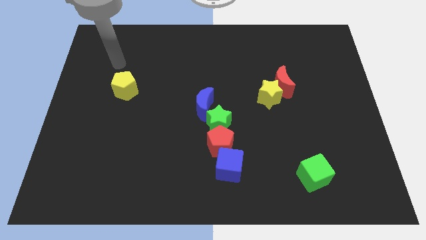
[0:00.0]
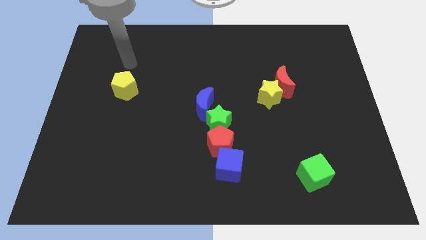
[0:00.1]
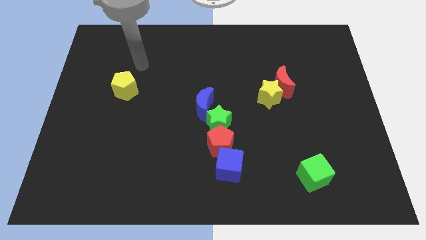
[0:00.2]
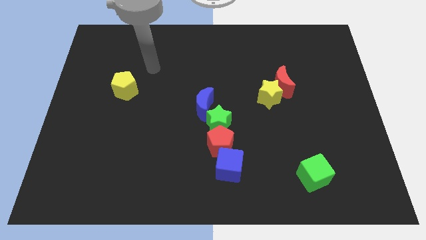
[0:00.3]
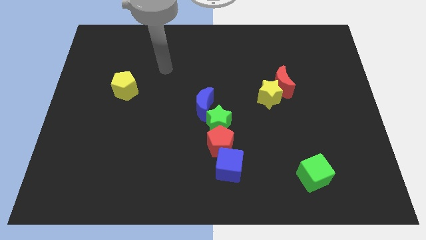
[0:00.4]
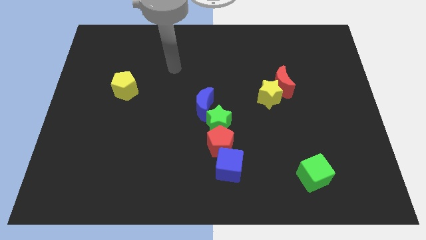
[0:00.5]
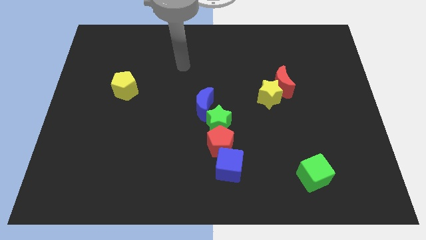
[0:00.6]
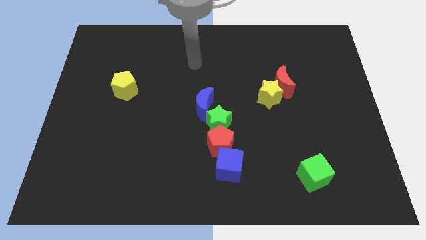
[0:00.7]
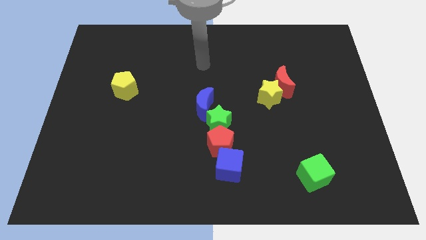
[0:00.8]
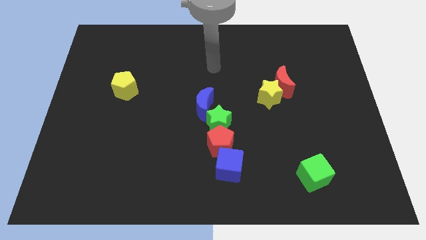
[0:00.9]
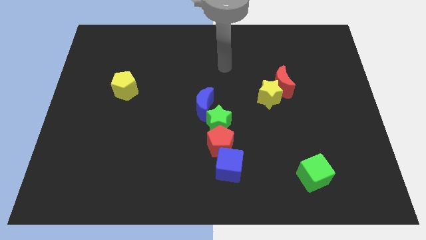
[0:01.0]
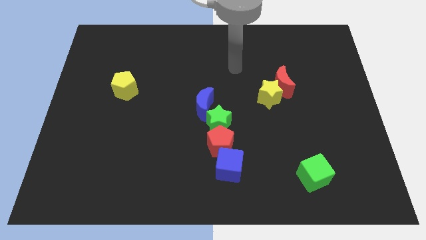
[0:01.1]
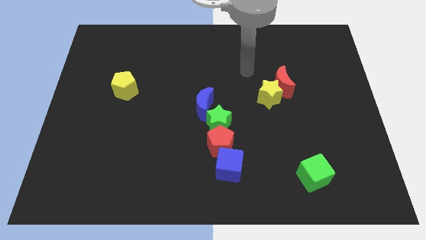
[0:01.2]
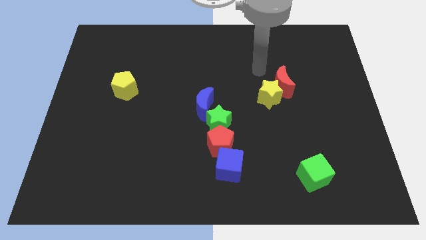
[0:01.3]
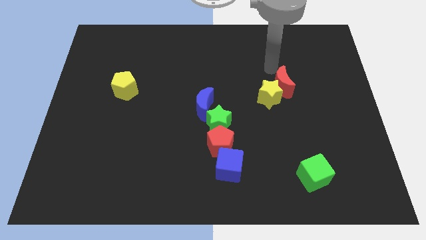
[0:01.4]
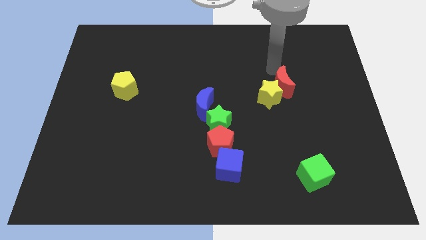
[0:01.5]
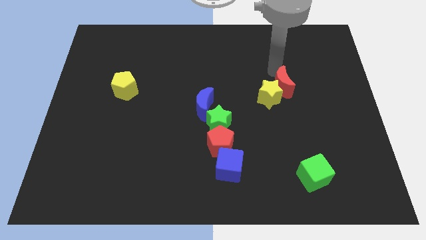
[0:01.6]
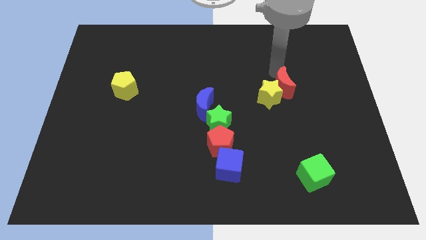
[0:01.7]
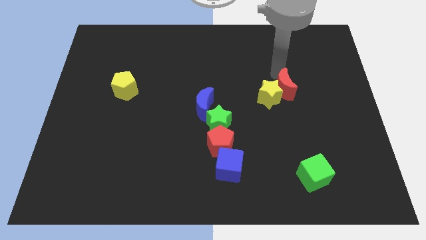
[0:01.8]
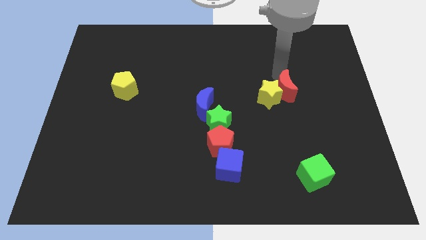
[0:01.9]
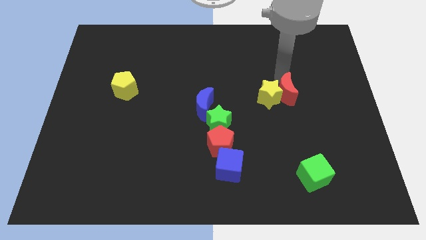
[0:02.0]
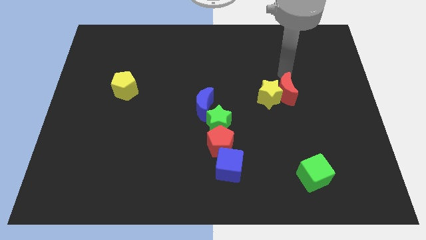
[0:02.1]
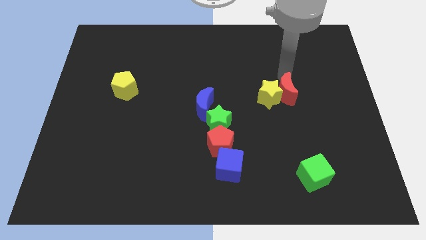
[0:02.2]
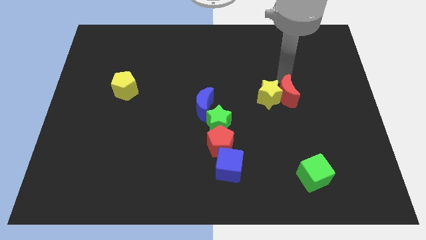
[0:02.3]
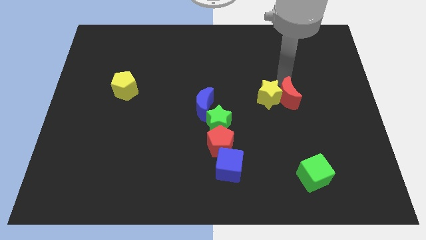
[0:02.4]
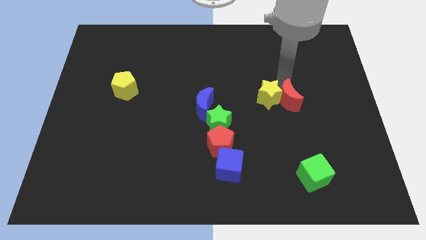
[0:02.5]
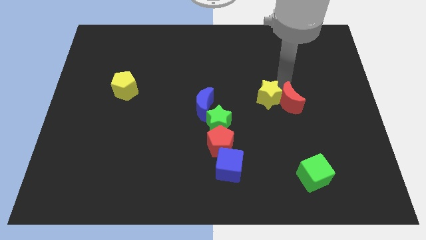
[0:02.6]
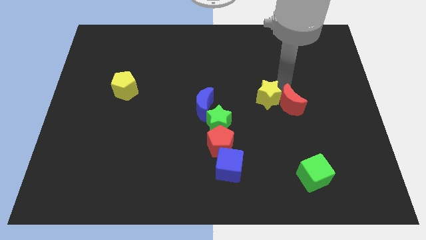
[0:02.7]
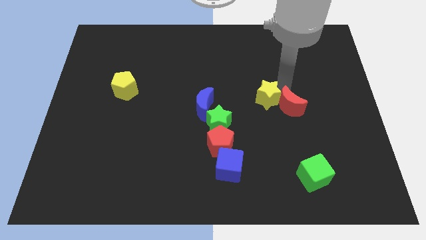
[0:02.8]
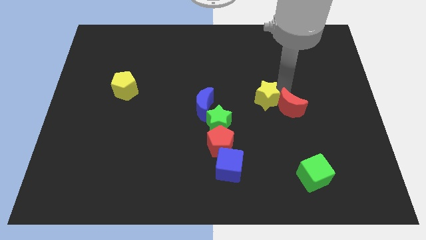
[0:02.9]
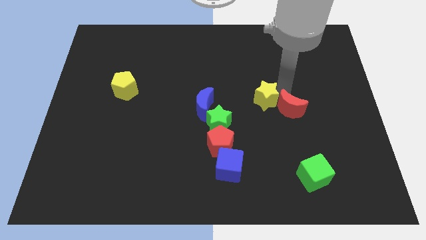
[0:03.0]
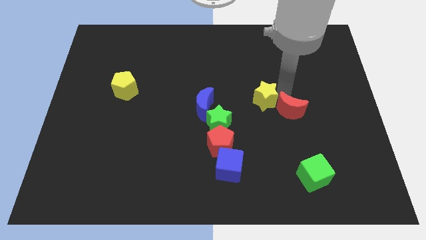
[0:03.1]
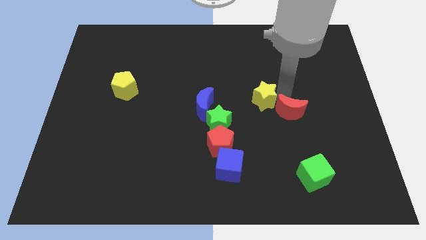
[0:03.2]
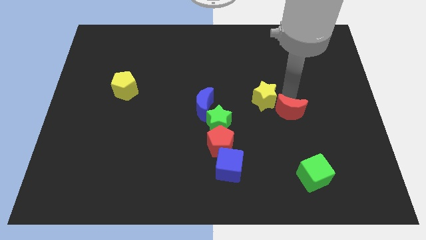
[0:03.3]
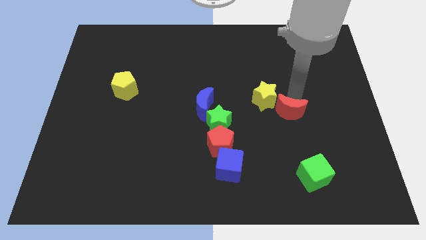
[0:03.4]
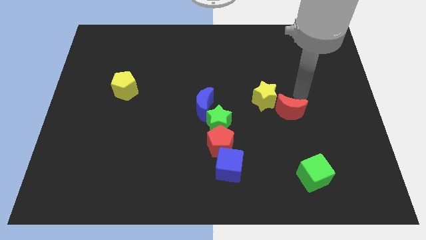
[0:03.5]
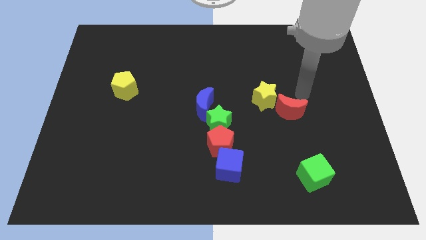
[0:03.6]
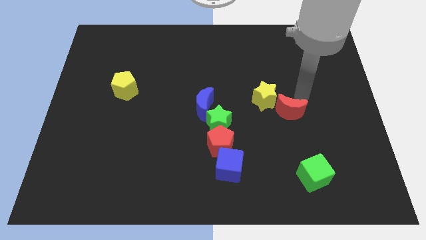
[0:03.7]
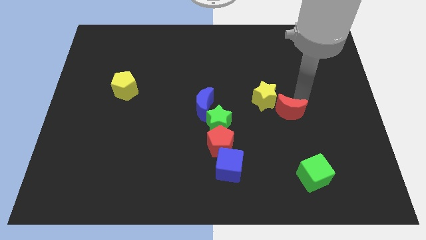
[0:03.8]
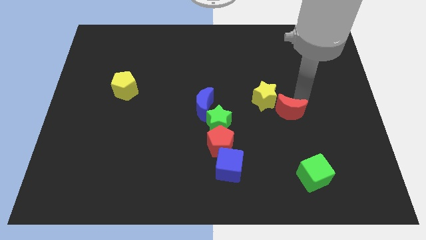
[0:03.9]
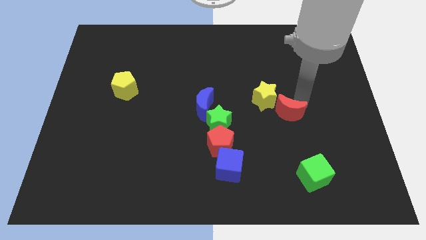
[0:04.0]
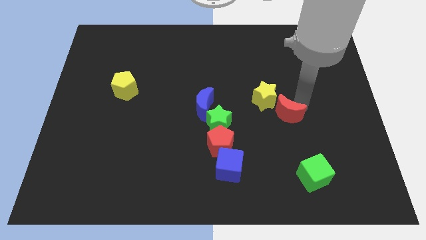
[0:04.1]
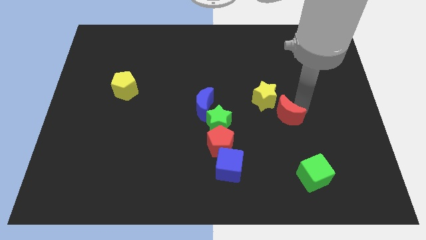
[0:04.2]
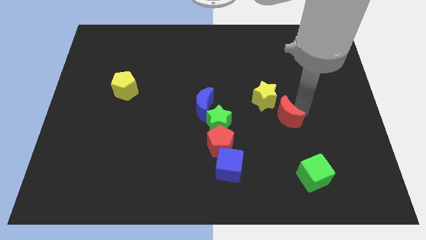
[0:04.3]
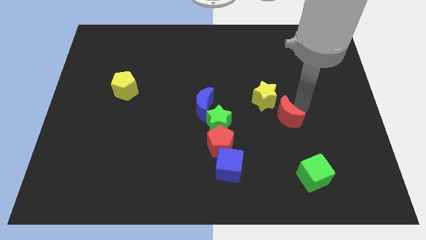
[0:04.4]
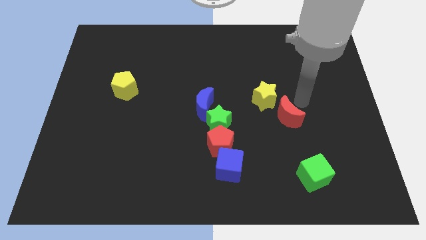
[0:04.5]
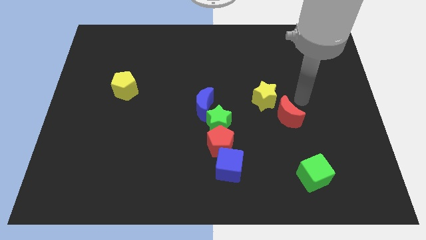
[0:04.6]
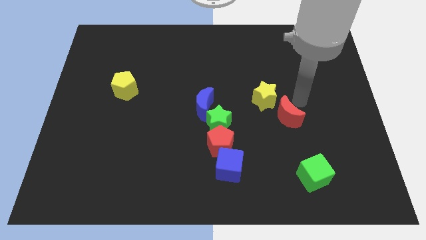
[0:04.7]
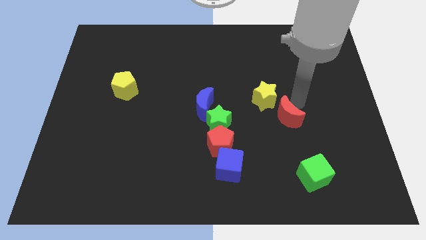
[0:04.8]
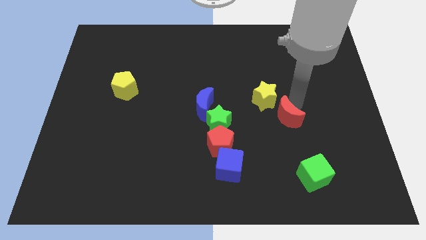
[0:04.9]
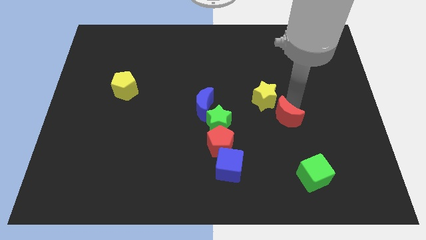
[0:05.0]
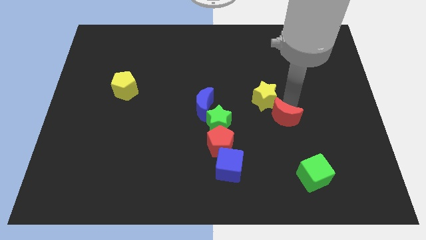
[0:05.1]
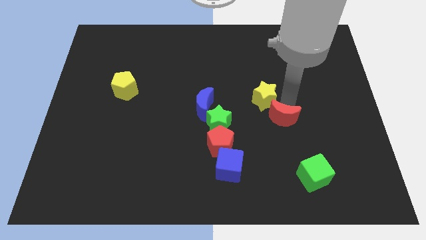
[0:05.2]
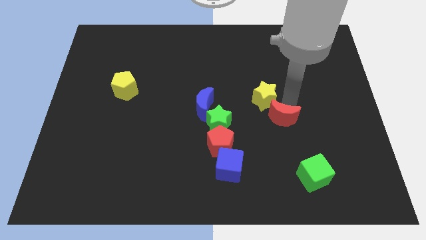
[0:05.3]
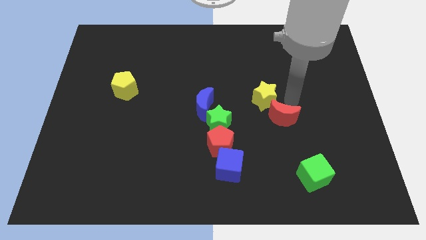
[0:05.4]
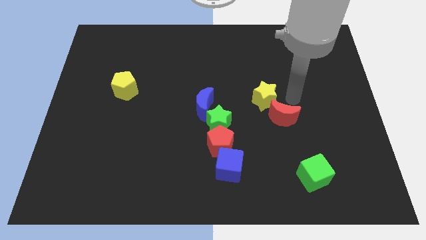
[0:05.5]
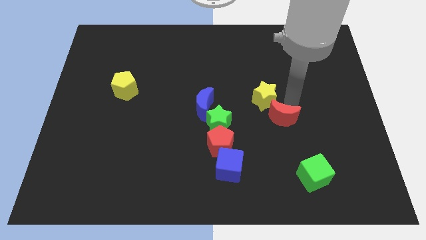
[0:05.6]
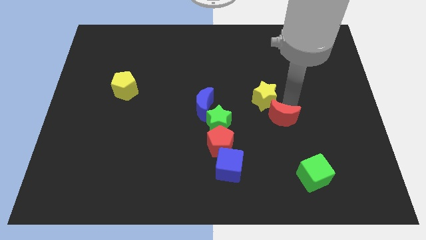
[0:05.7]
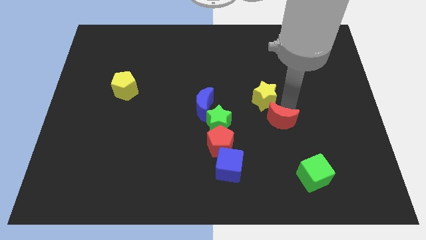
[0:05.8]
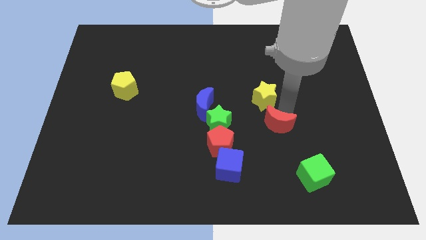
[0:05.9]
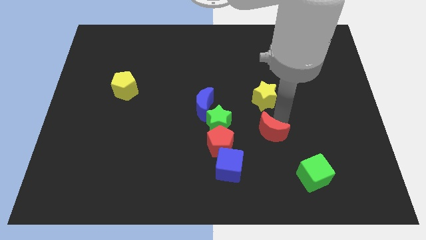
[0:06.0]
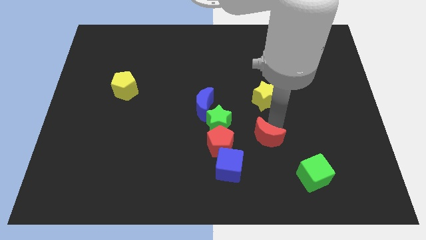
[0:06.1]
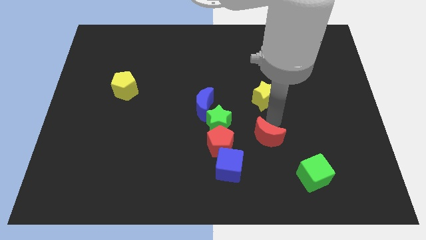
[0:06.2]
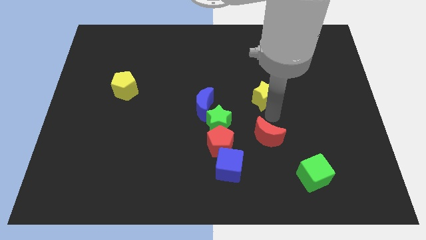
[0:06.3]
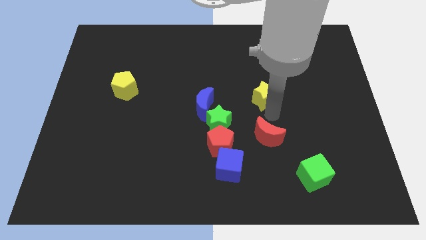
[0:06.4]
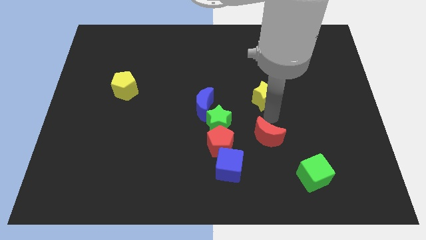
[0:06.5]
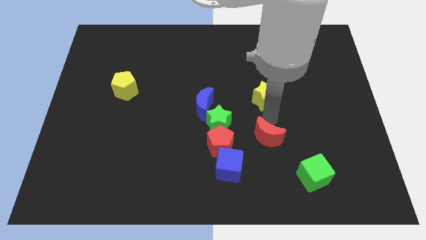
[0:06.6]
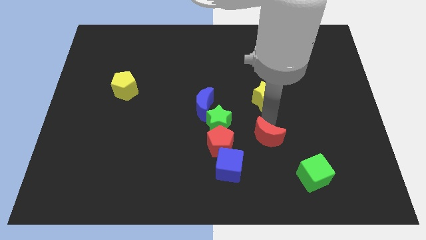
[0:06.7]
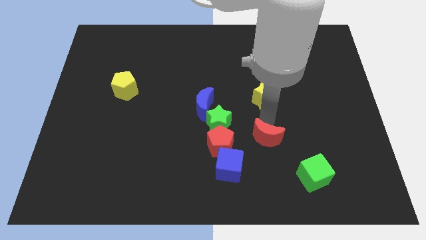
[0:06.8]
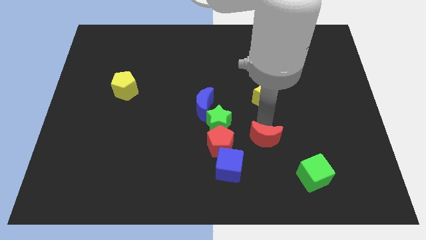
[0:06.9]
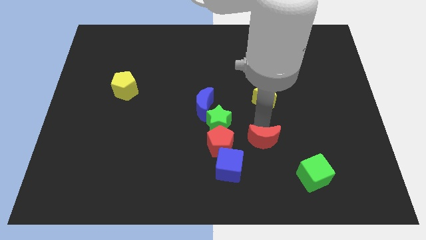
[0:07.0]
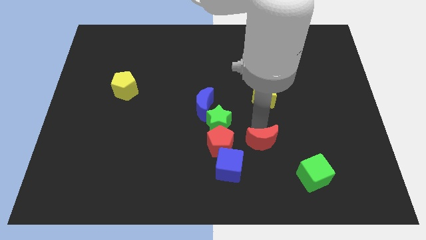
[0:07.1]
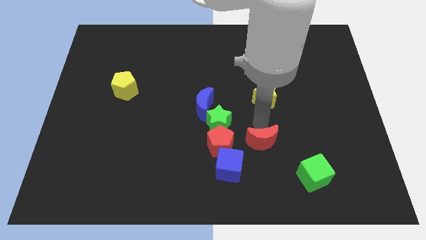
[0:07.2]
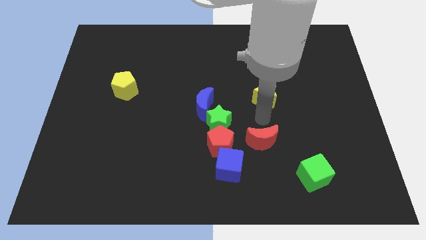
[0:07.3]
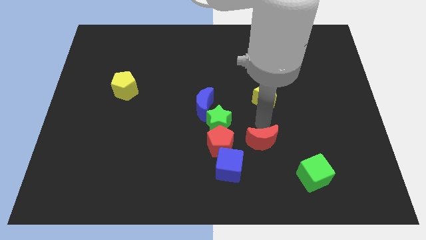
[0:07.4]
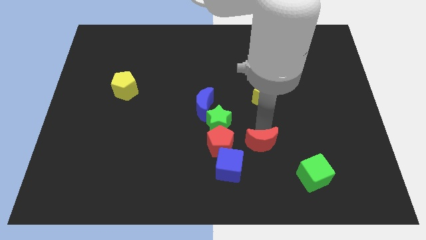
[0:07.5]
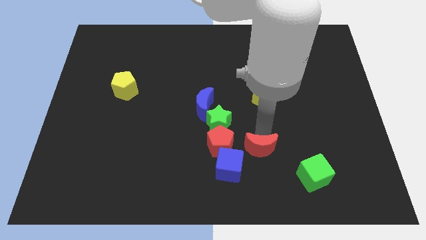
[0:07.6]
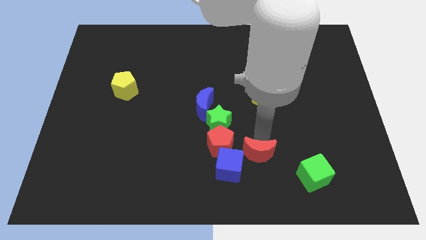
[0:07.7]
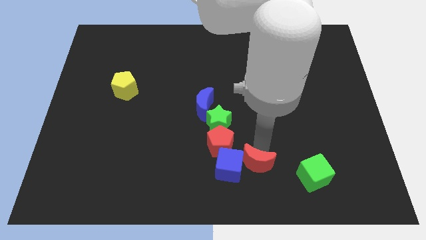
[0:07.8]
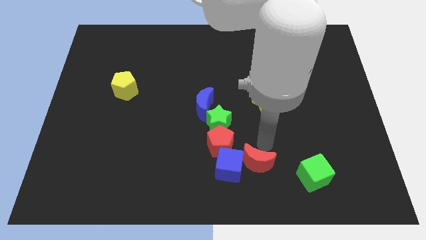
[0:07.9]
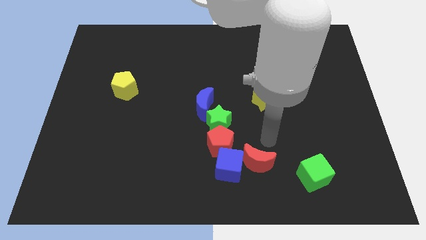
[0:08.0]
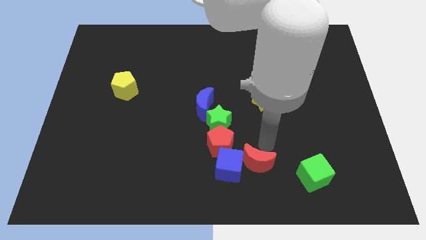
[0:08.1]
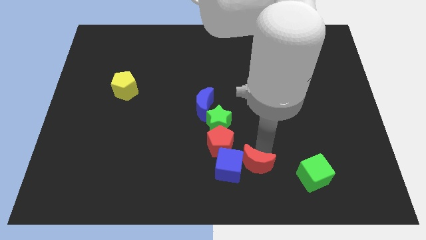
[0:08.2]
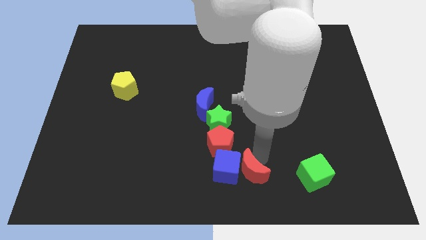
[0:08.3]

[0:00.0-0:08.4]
slide the red moon to the bottom side
